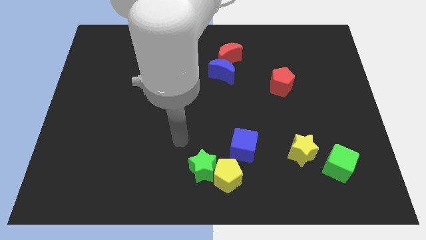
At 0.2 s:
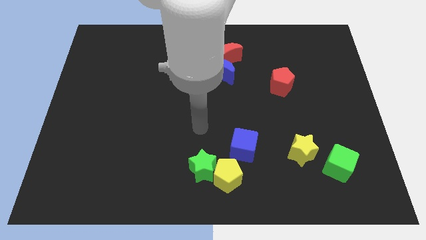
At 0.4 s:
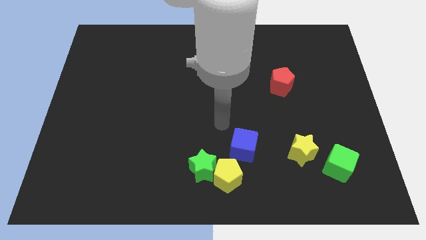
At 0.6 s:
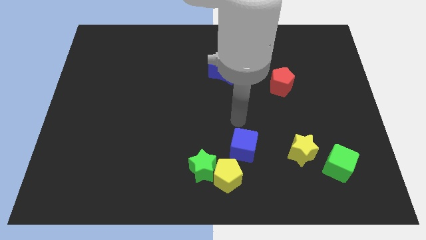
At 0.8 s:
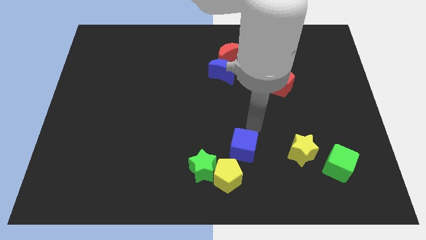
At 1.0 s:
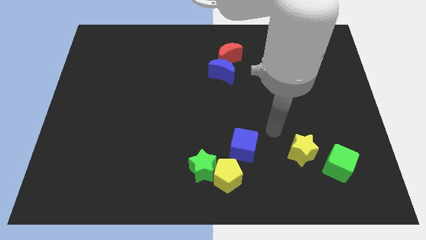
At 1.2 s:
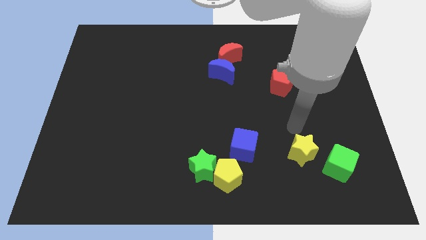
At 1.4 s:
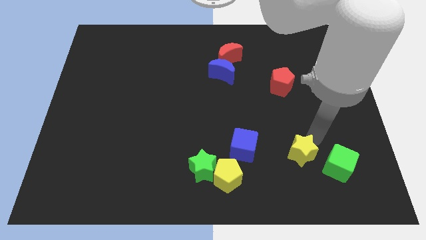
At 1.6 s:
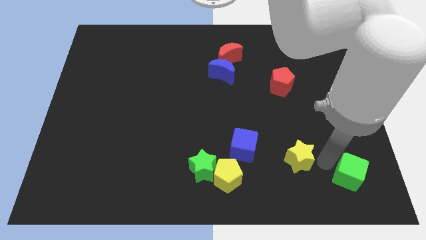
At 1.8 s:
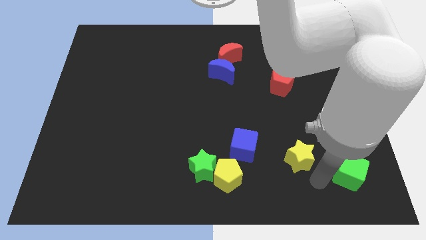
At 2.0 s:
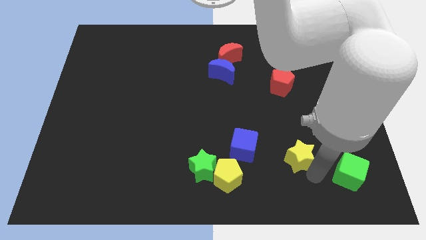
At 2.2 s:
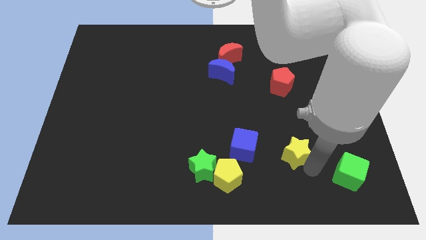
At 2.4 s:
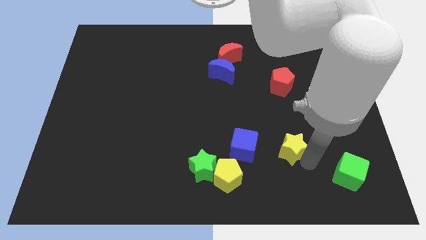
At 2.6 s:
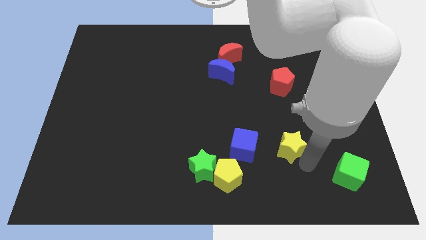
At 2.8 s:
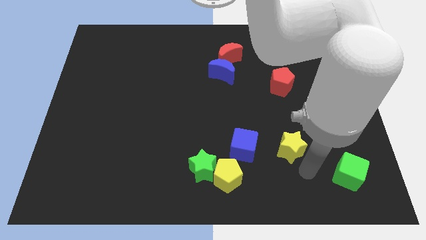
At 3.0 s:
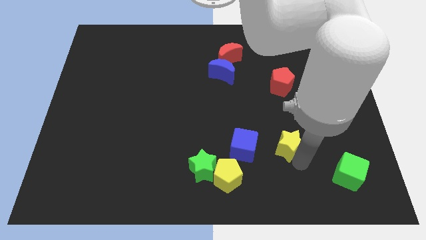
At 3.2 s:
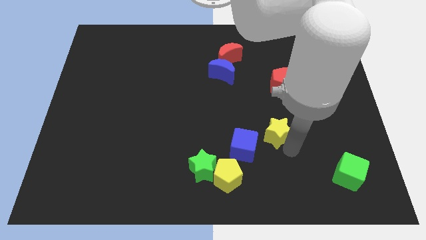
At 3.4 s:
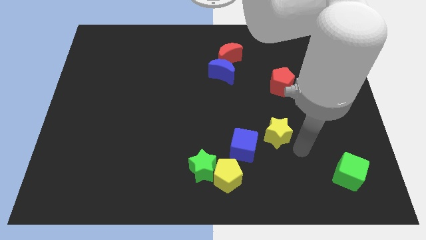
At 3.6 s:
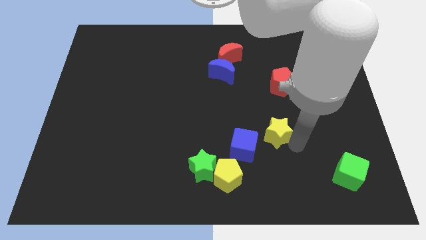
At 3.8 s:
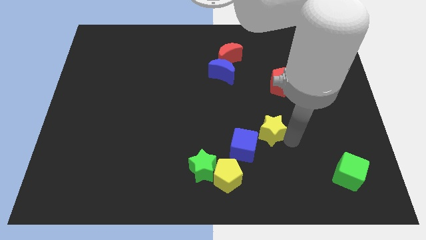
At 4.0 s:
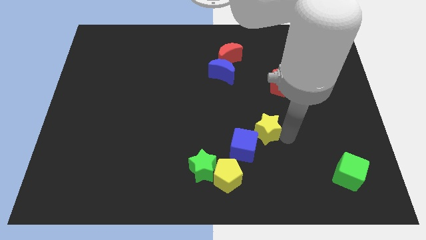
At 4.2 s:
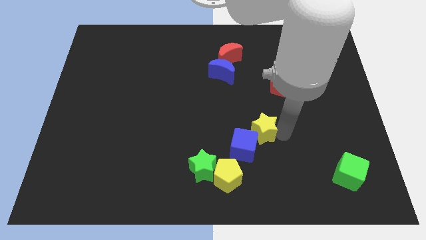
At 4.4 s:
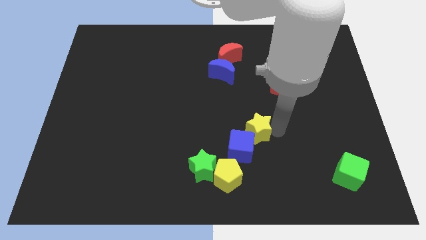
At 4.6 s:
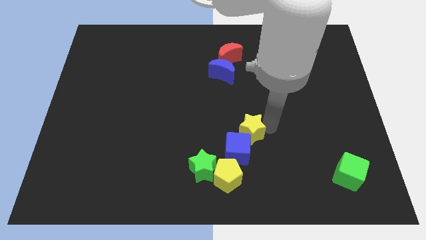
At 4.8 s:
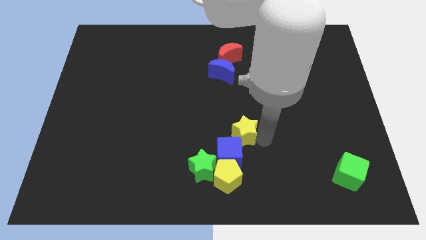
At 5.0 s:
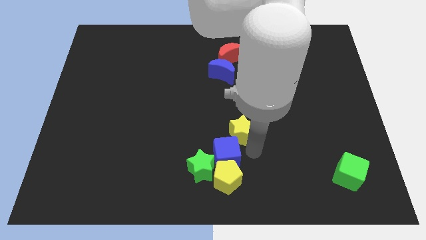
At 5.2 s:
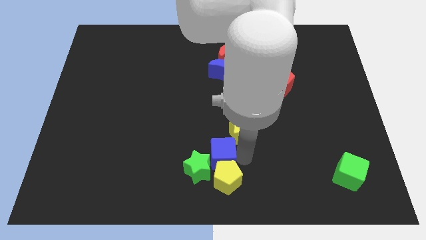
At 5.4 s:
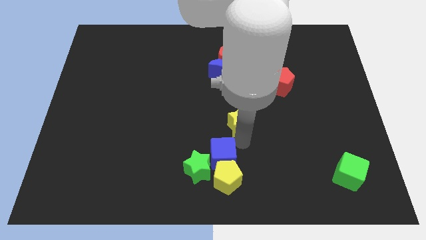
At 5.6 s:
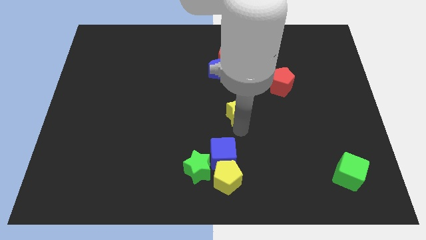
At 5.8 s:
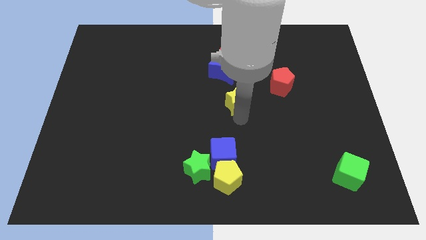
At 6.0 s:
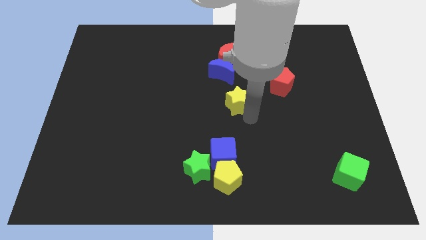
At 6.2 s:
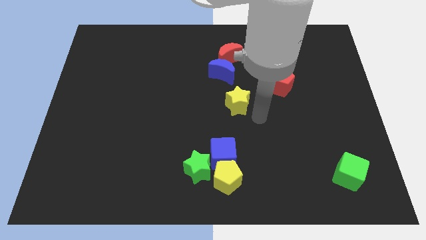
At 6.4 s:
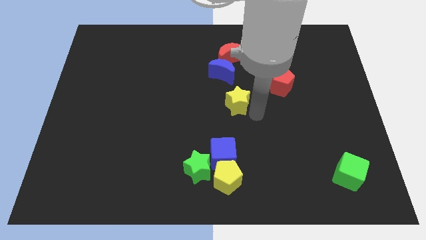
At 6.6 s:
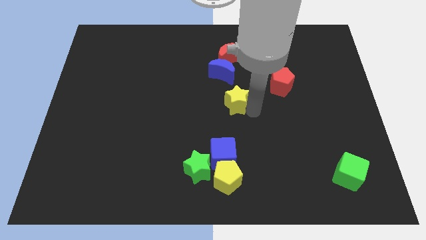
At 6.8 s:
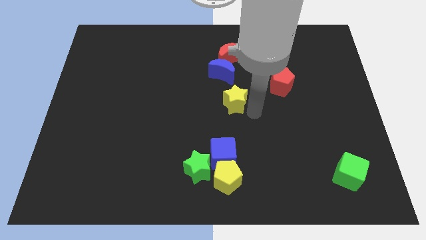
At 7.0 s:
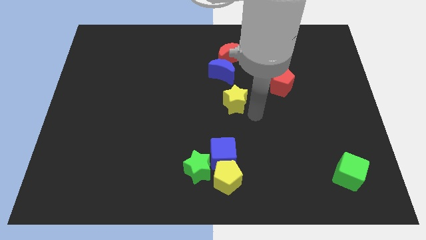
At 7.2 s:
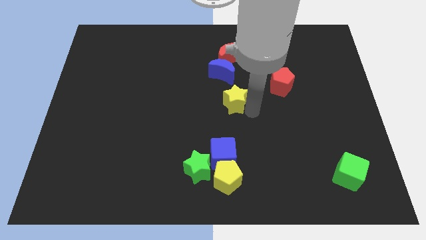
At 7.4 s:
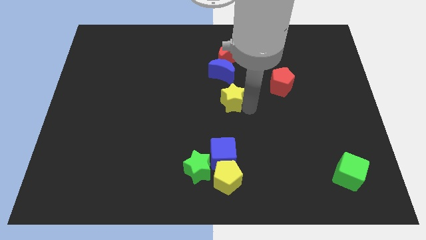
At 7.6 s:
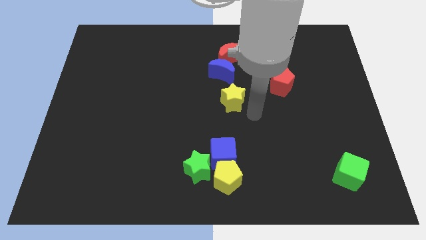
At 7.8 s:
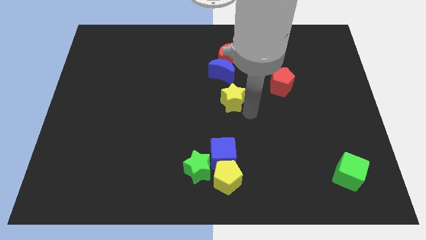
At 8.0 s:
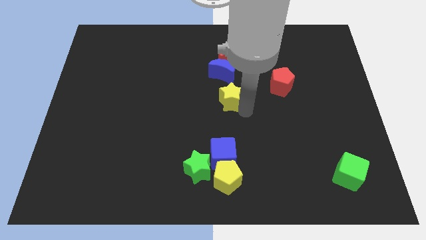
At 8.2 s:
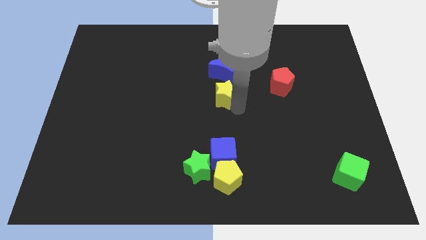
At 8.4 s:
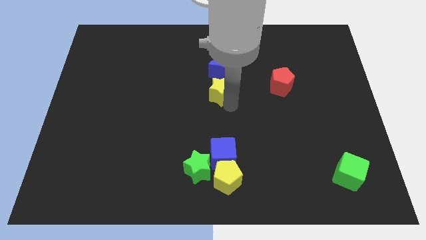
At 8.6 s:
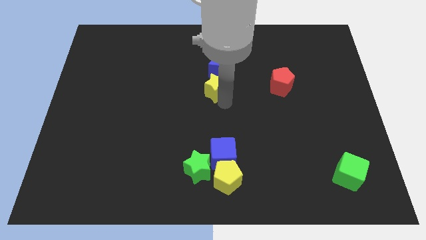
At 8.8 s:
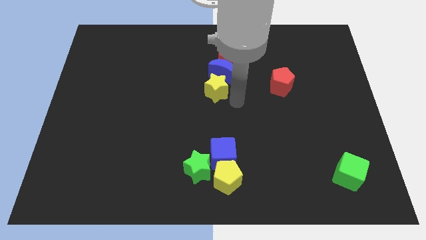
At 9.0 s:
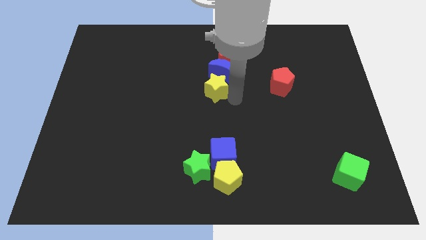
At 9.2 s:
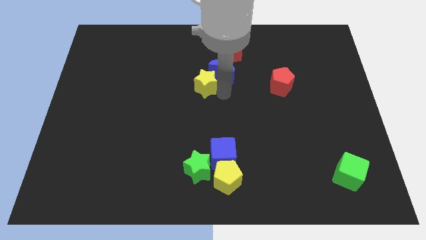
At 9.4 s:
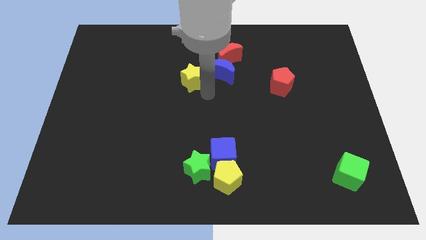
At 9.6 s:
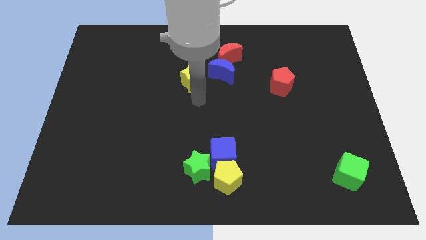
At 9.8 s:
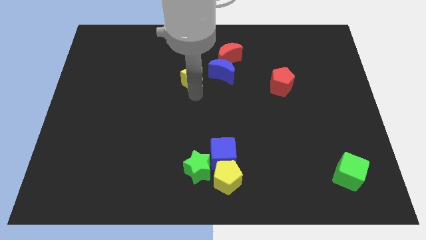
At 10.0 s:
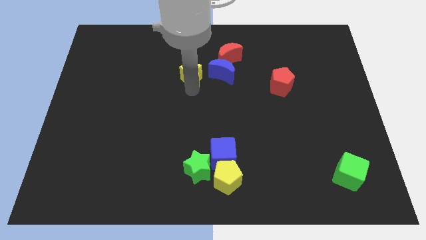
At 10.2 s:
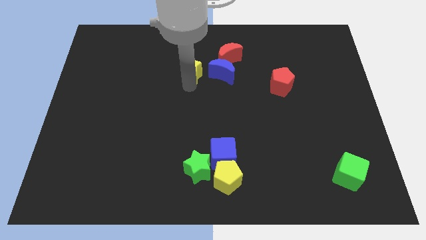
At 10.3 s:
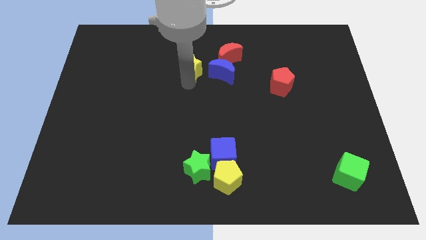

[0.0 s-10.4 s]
put the yellow star just left of the red moon

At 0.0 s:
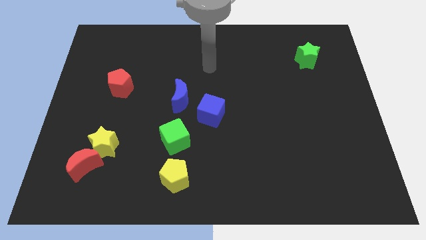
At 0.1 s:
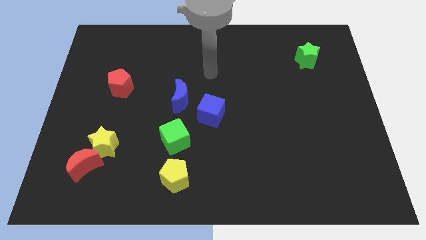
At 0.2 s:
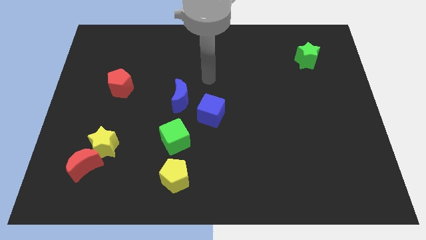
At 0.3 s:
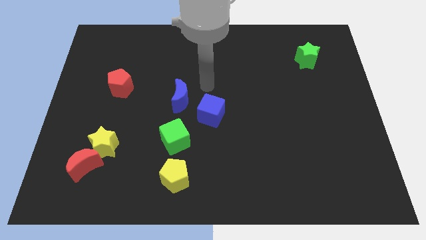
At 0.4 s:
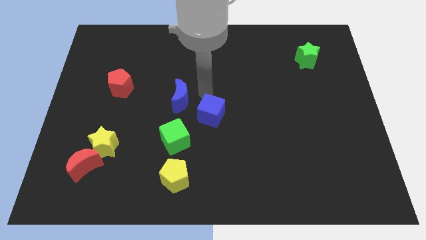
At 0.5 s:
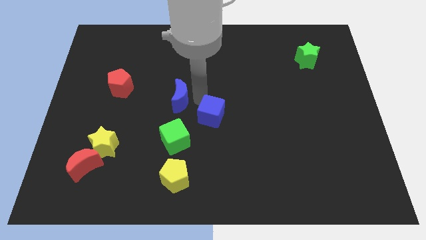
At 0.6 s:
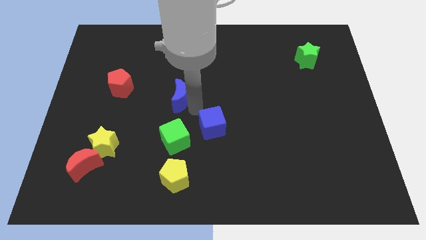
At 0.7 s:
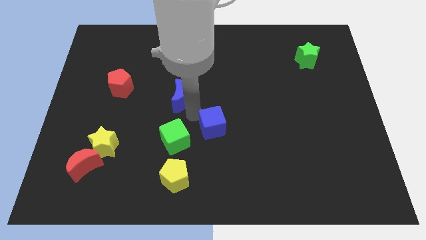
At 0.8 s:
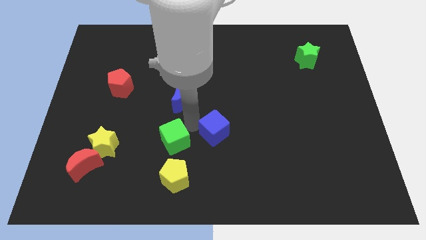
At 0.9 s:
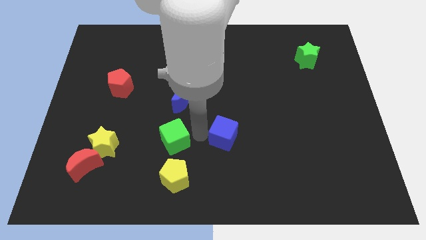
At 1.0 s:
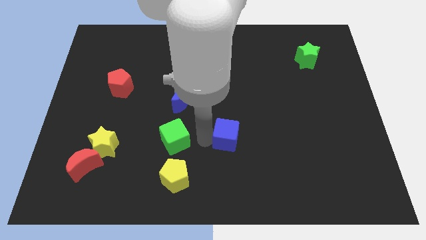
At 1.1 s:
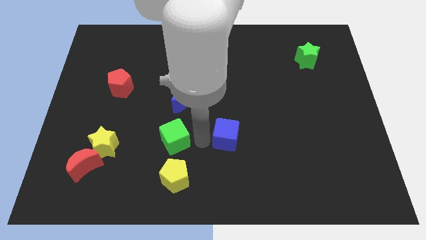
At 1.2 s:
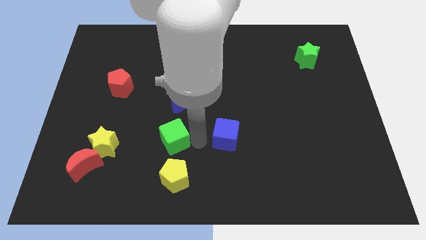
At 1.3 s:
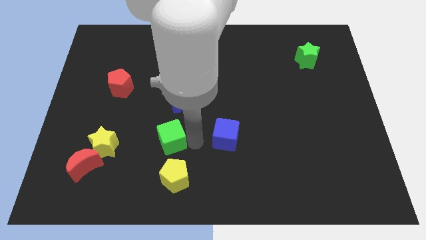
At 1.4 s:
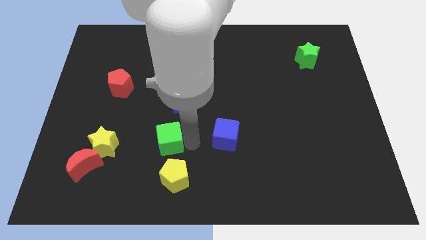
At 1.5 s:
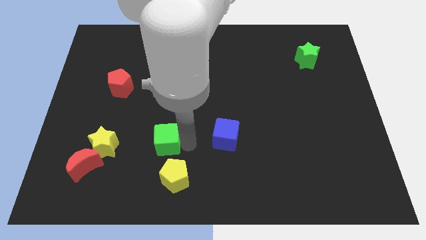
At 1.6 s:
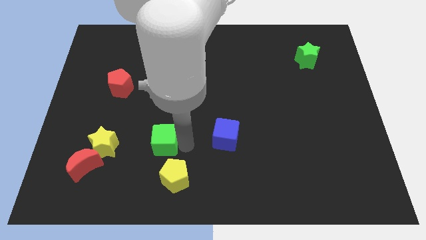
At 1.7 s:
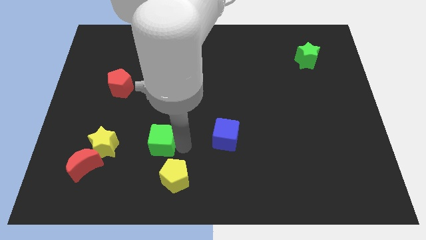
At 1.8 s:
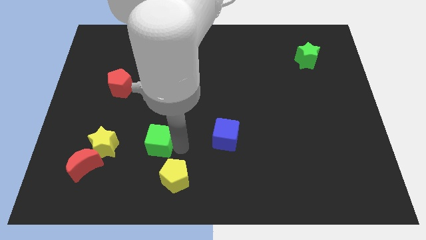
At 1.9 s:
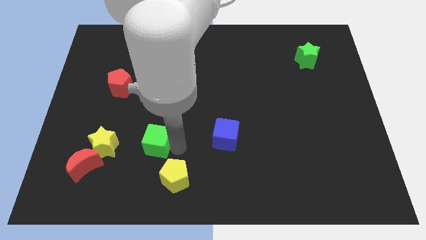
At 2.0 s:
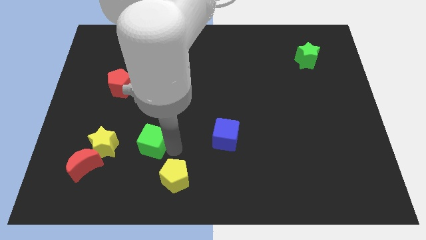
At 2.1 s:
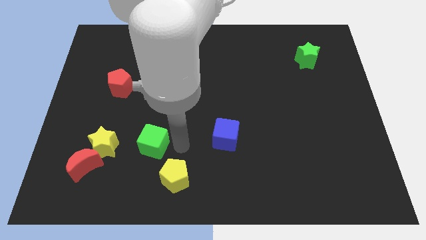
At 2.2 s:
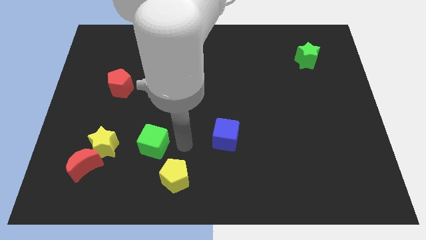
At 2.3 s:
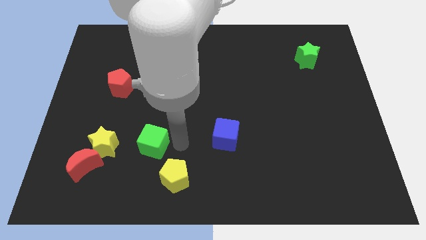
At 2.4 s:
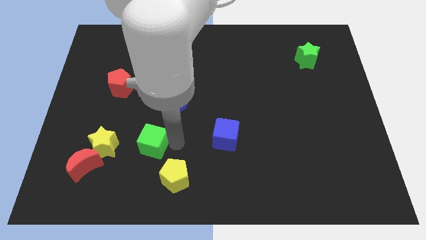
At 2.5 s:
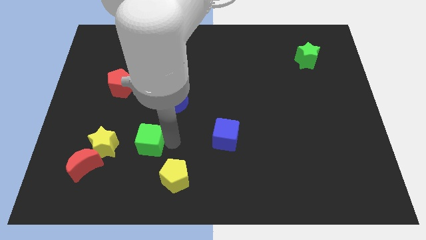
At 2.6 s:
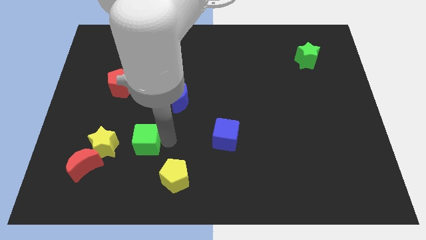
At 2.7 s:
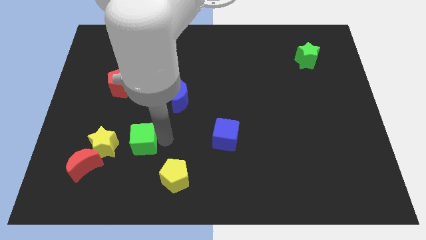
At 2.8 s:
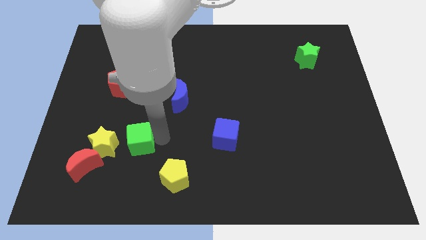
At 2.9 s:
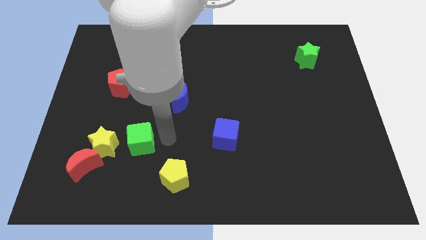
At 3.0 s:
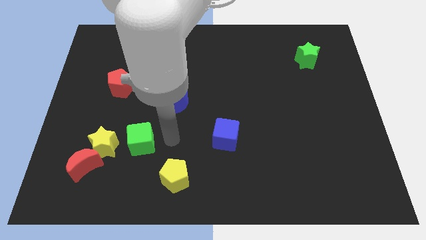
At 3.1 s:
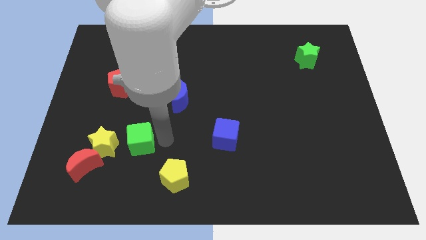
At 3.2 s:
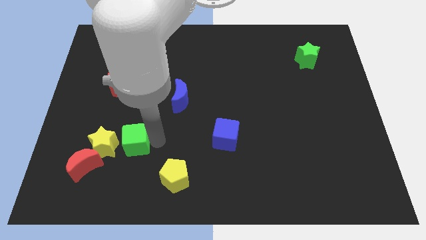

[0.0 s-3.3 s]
push the green cube to the top right of the red moon
